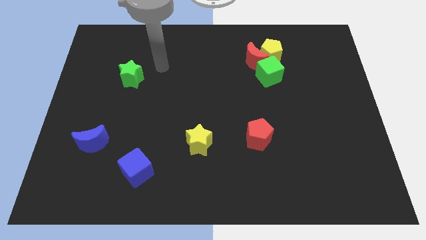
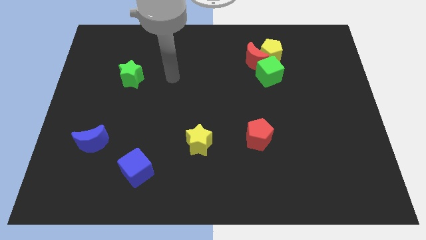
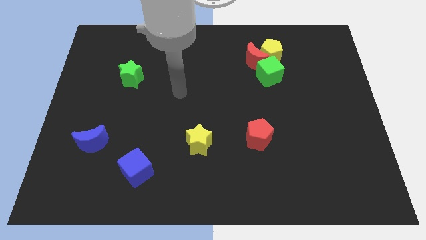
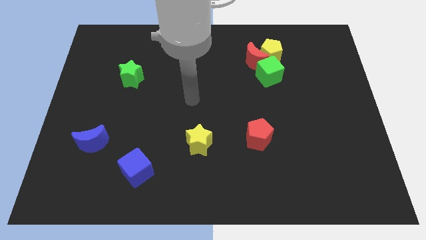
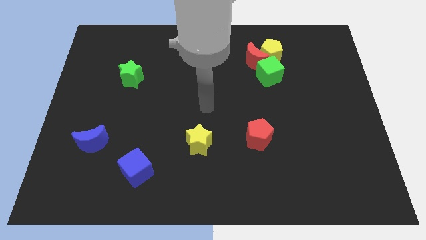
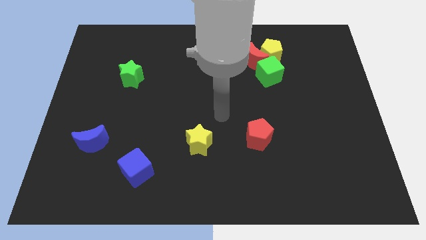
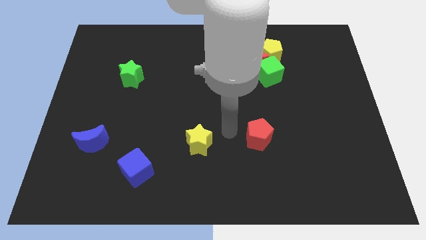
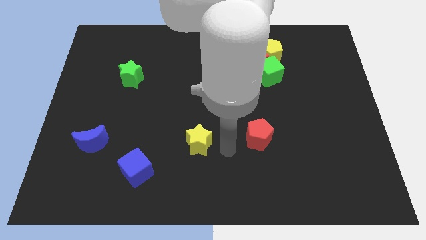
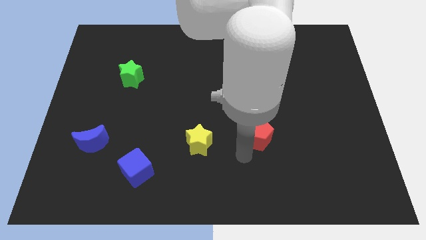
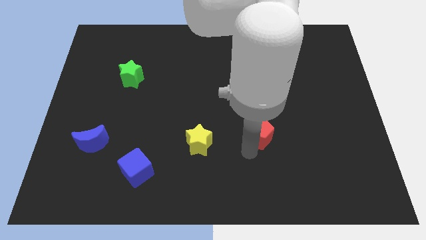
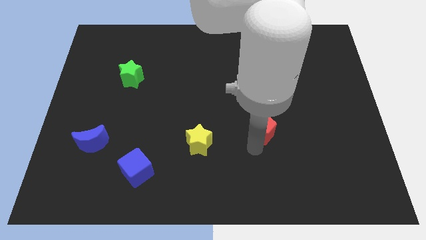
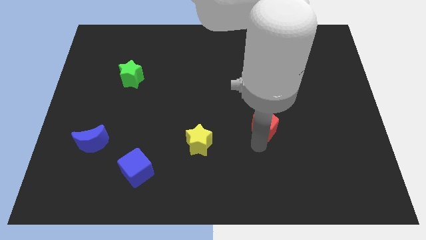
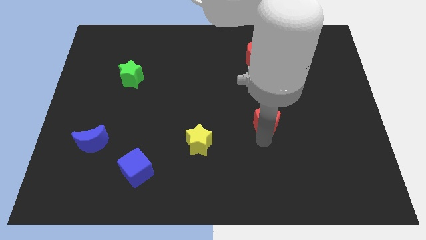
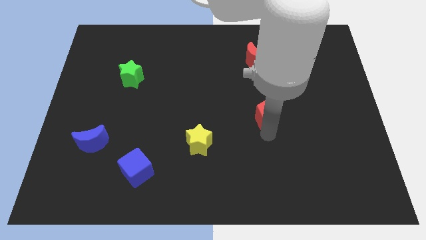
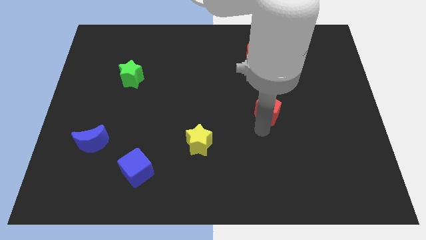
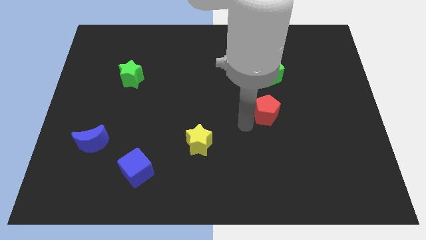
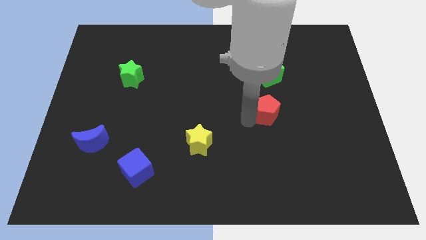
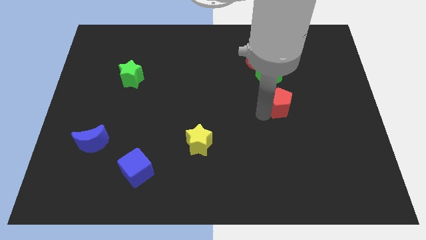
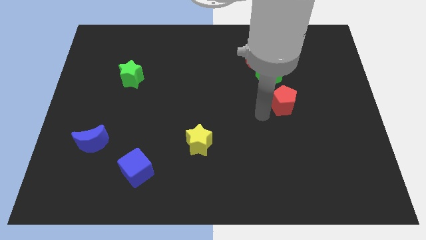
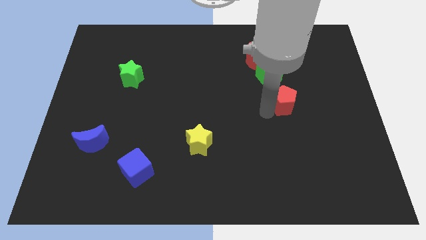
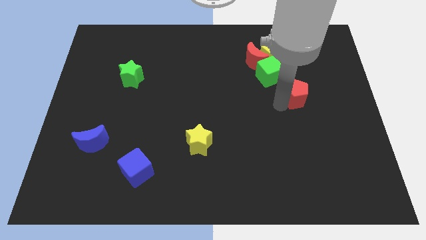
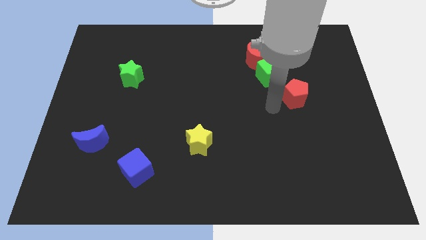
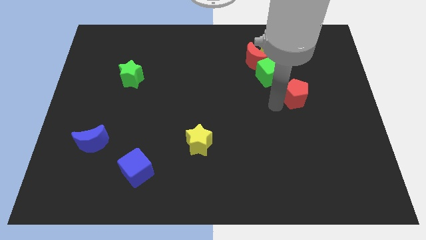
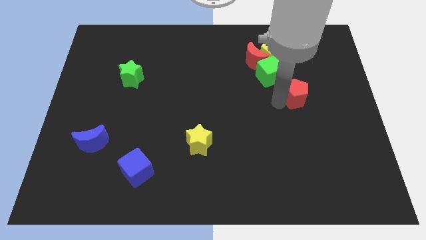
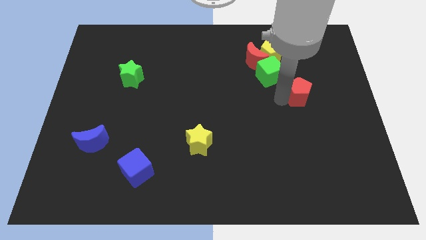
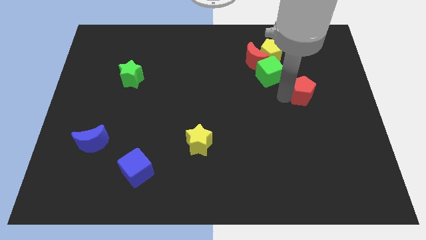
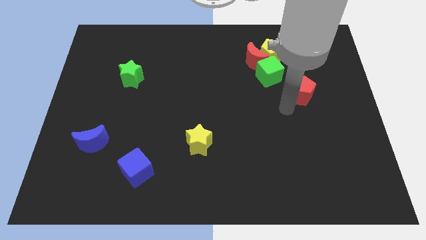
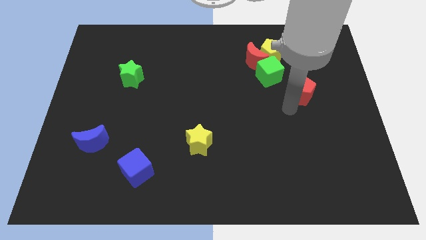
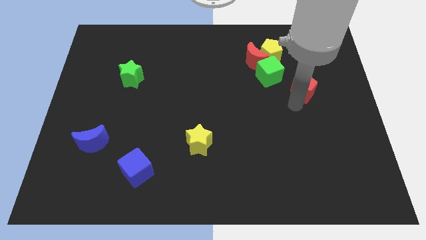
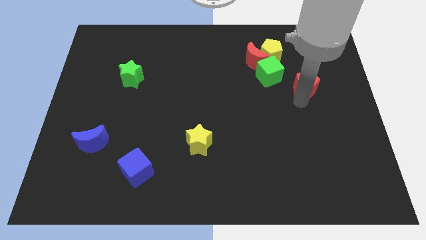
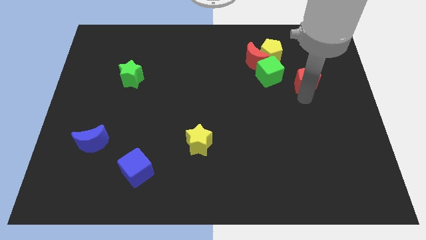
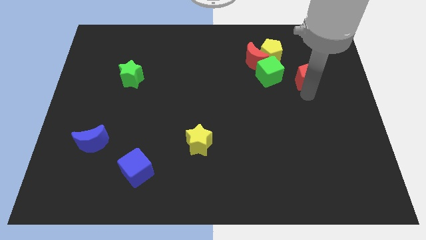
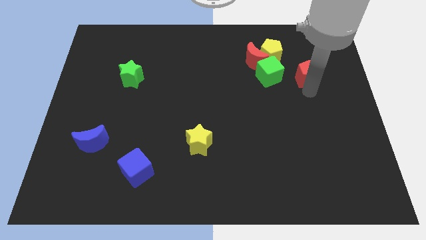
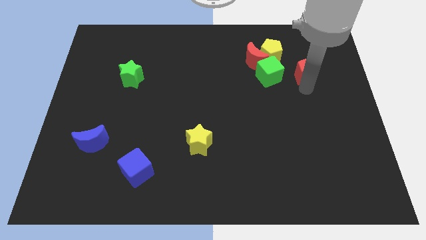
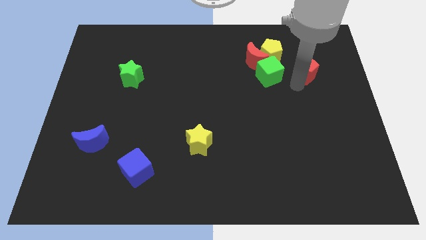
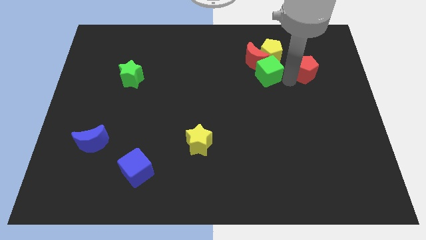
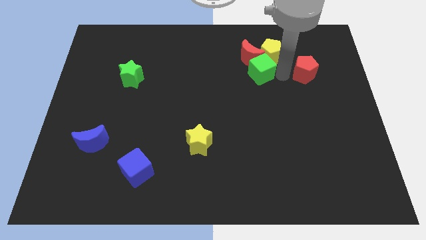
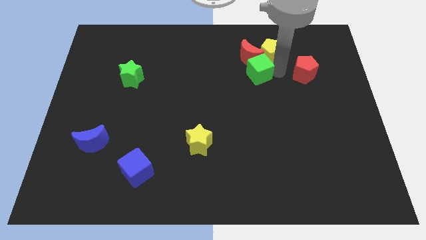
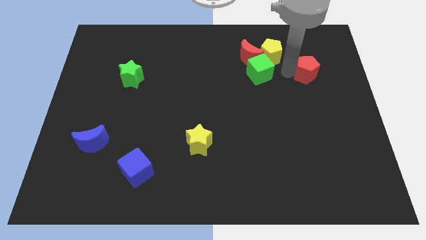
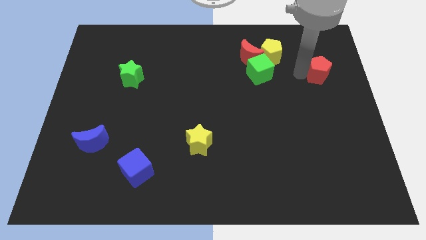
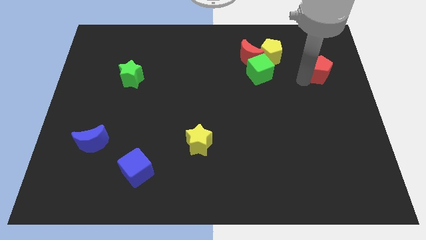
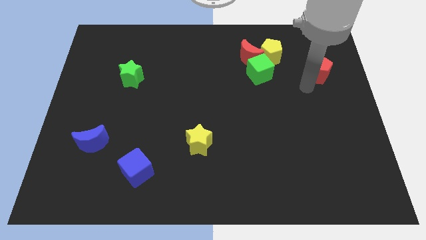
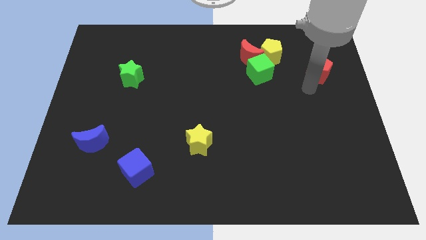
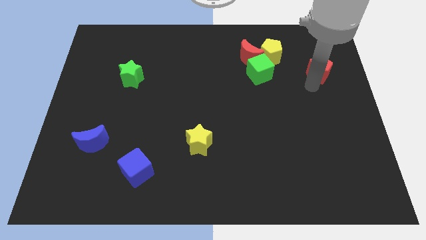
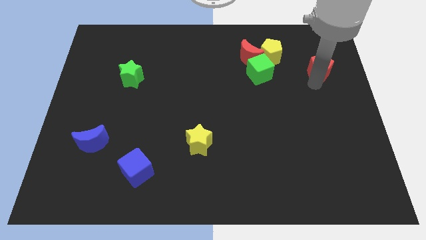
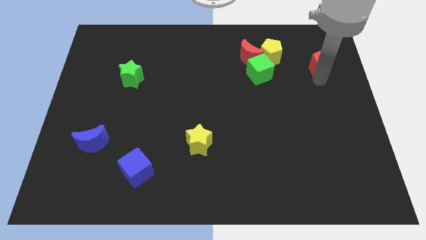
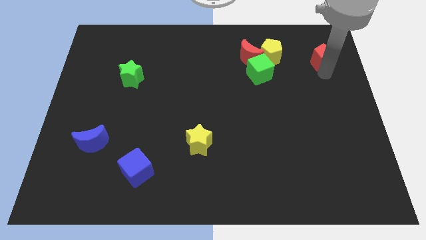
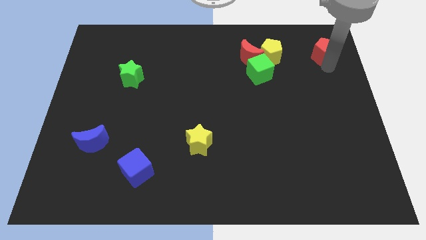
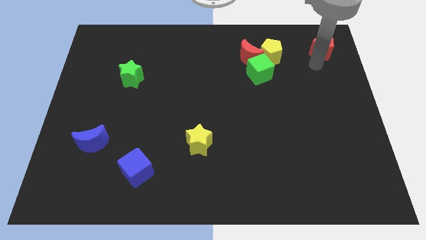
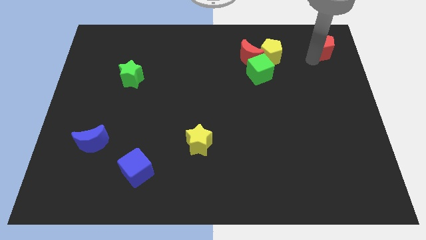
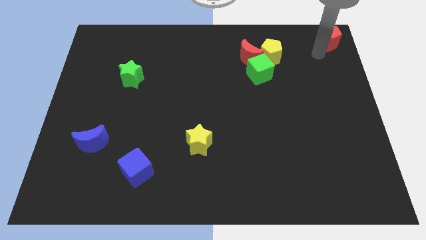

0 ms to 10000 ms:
slide the red pentagon to the top right of the board

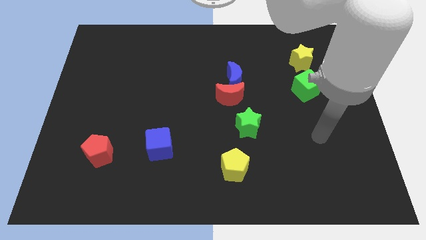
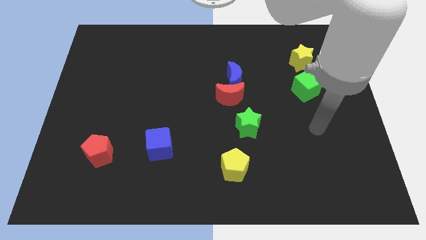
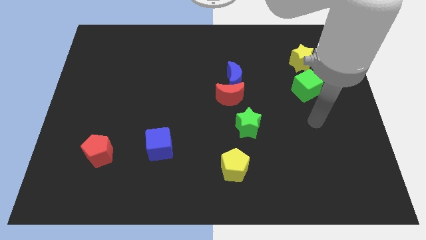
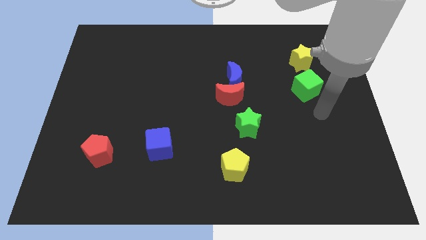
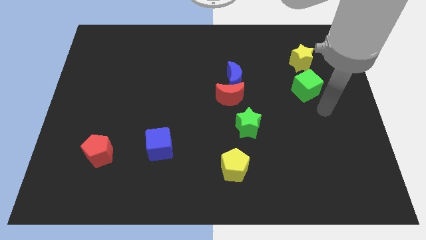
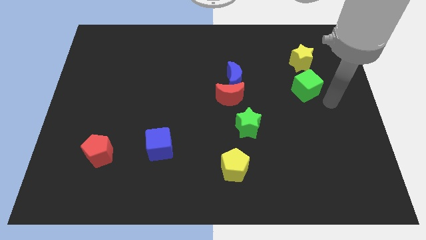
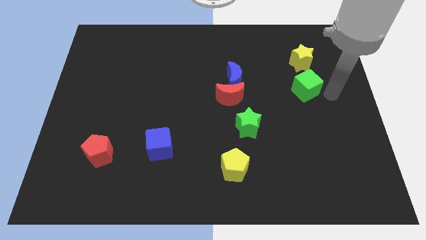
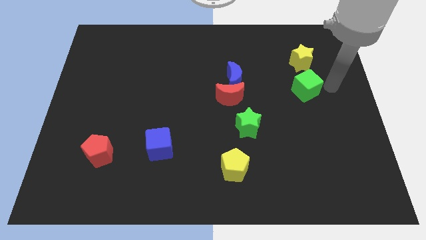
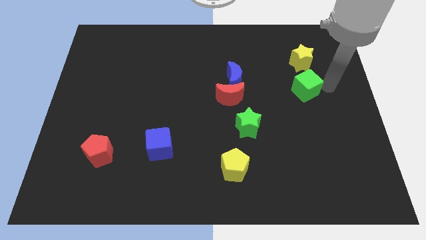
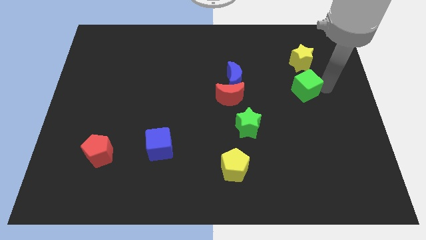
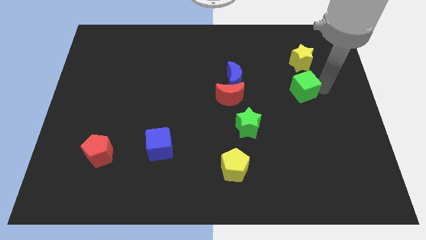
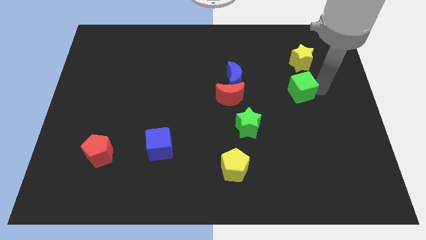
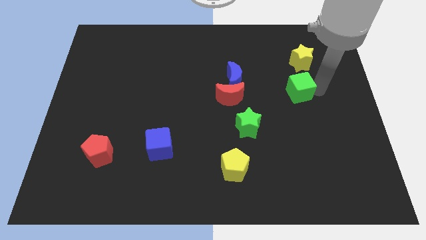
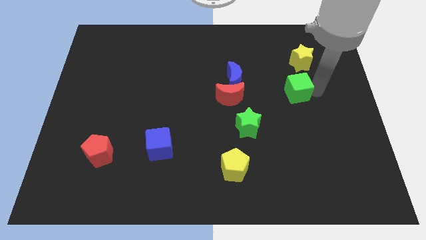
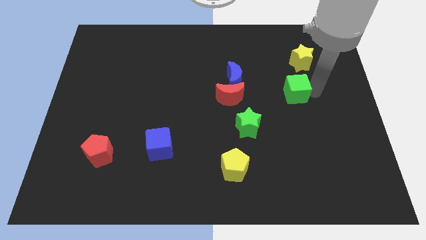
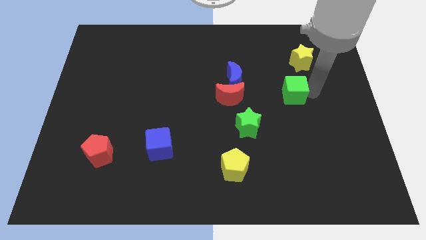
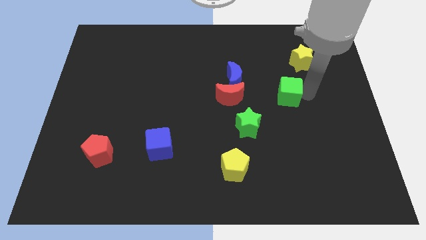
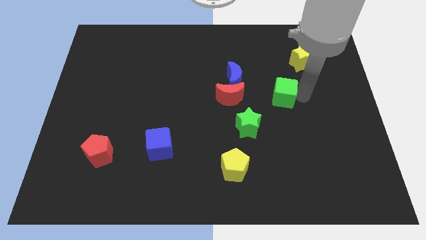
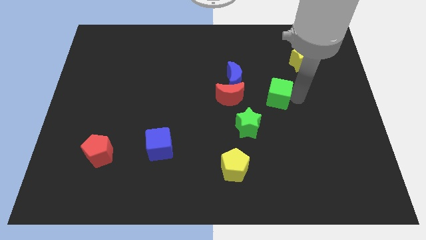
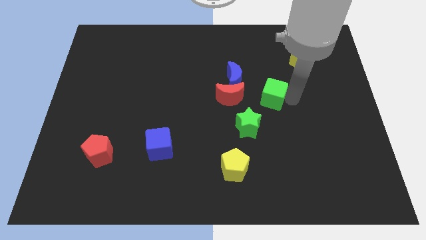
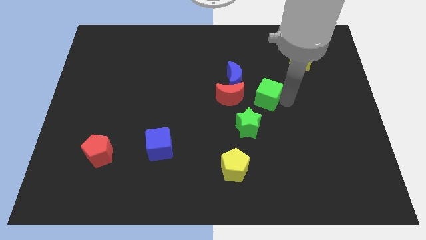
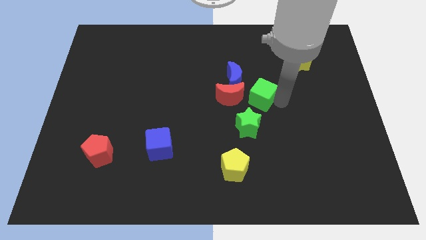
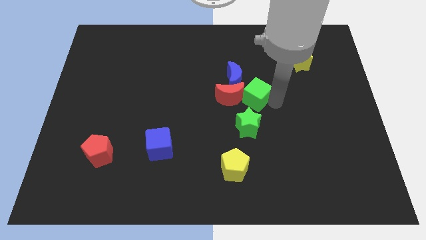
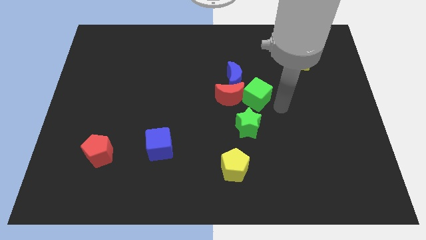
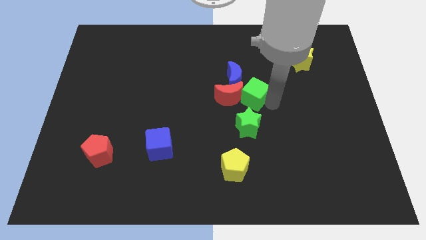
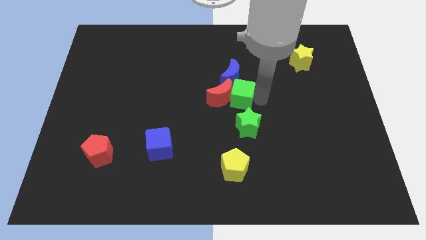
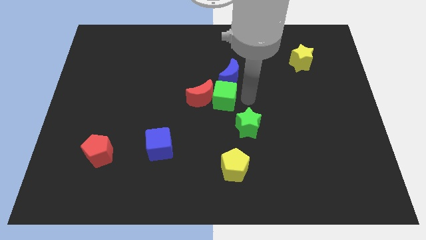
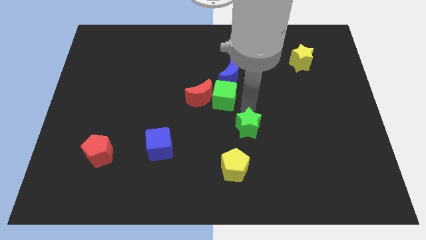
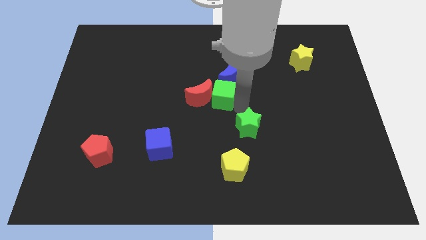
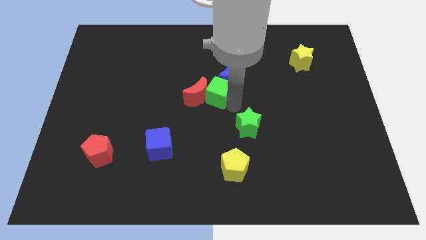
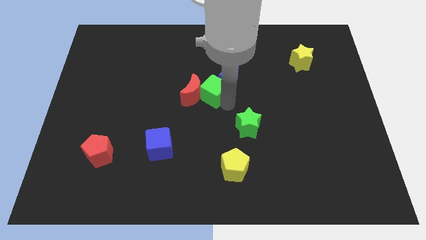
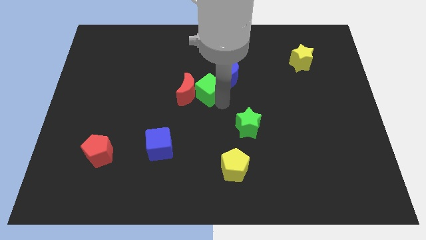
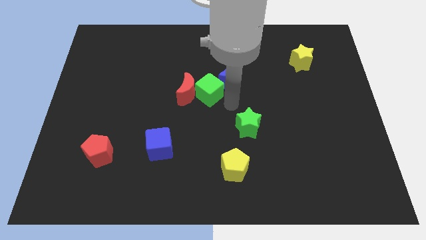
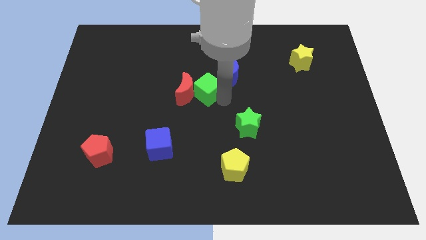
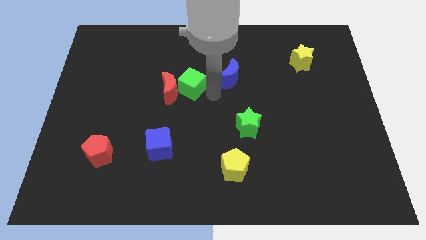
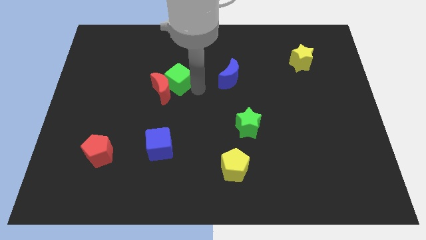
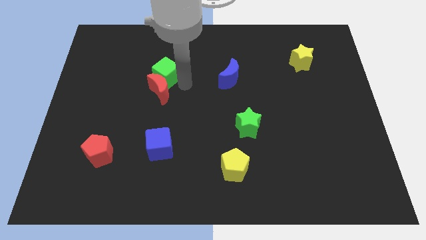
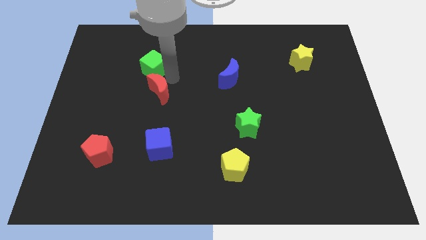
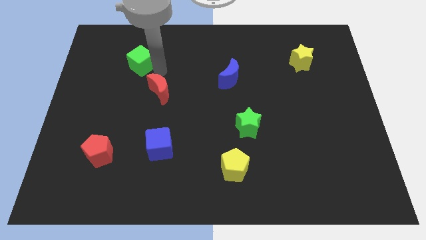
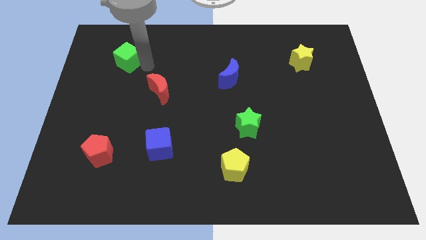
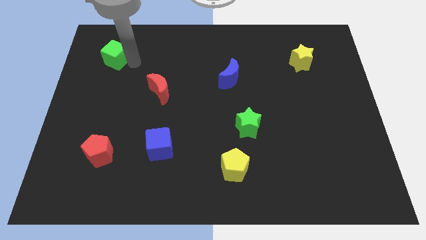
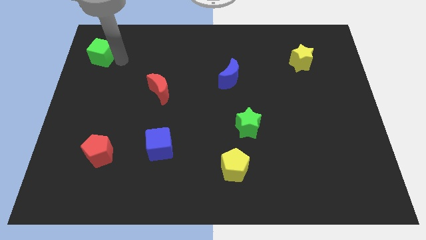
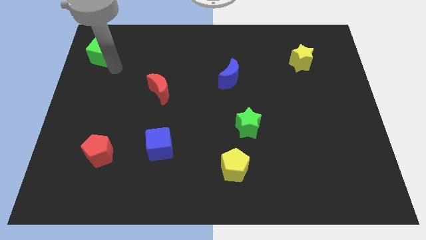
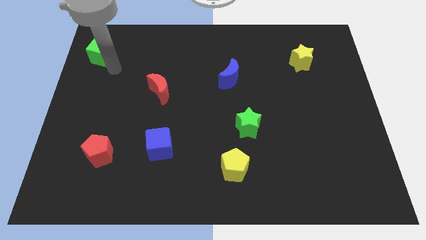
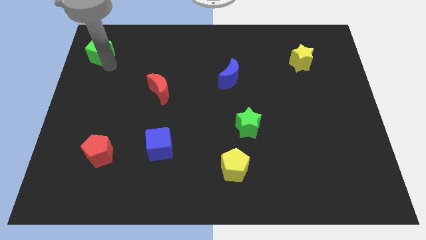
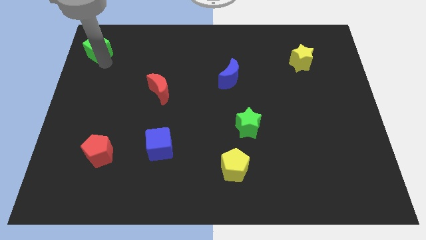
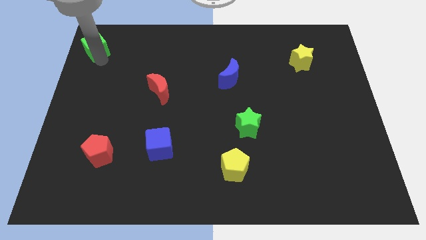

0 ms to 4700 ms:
move the green cube to the top left corner
